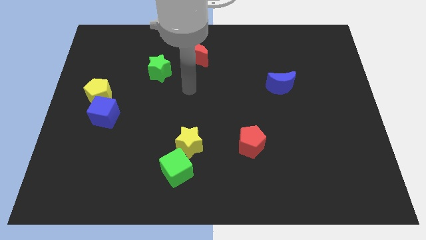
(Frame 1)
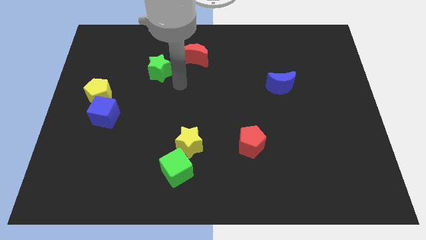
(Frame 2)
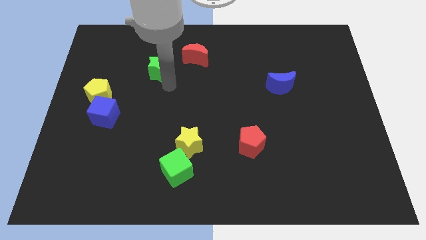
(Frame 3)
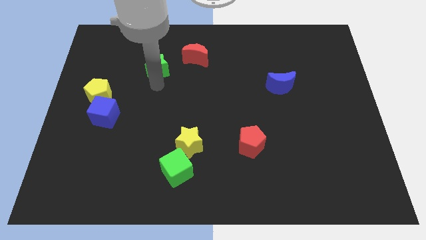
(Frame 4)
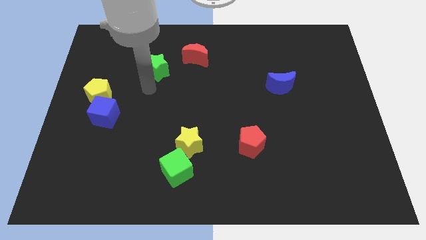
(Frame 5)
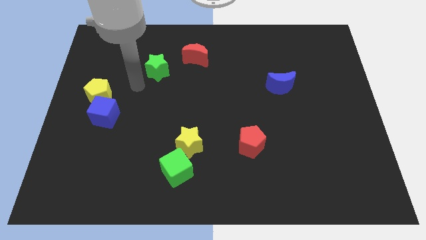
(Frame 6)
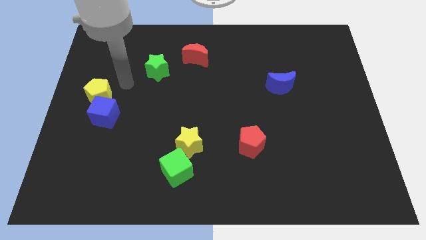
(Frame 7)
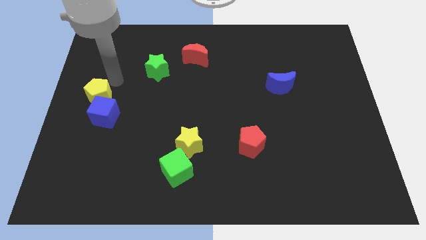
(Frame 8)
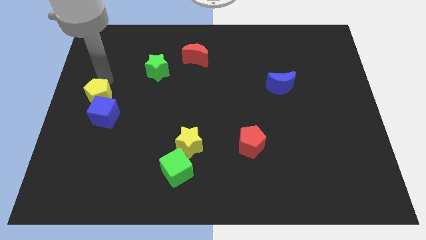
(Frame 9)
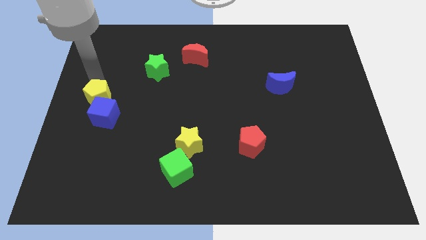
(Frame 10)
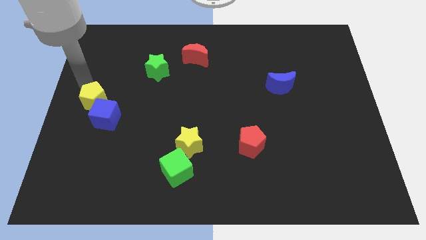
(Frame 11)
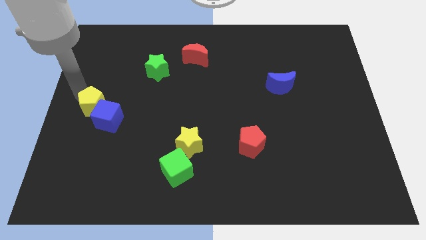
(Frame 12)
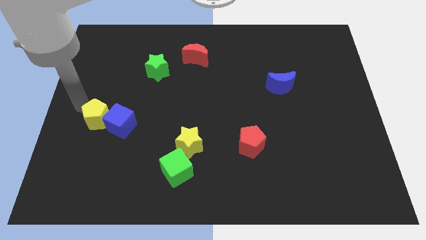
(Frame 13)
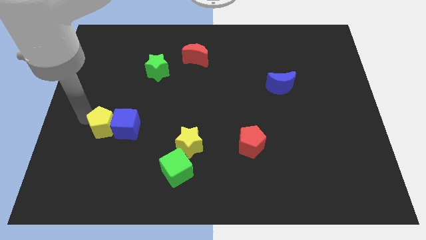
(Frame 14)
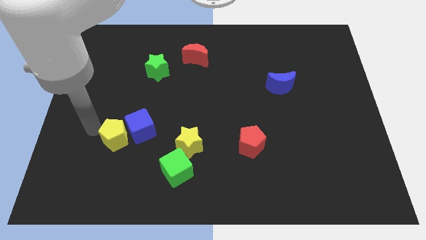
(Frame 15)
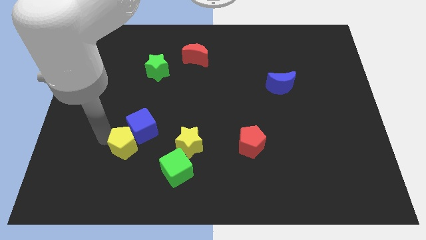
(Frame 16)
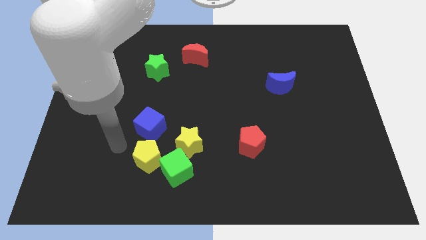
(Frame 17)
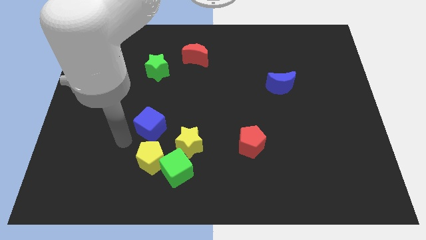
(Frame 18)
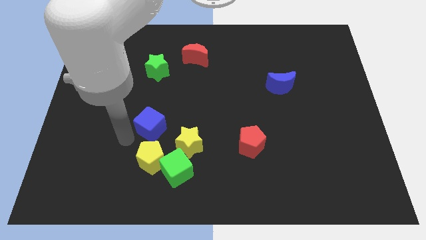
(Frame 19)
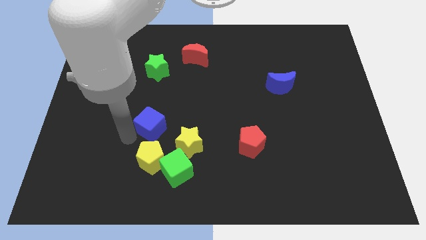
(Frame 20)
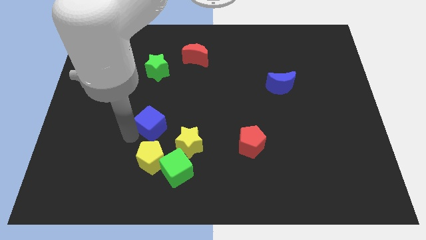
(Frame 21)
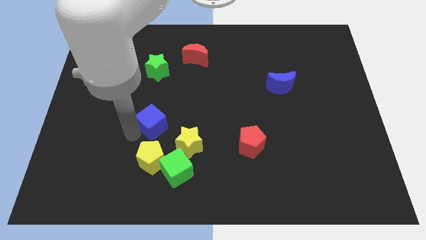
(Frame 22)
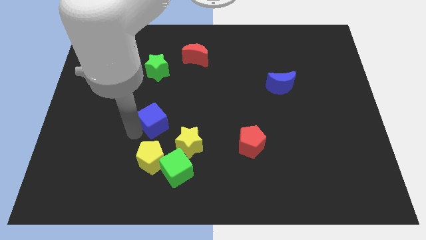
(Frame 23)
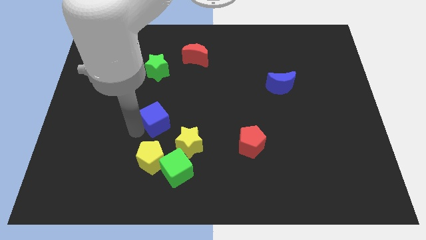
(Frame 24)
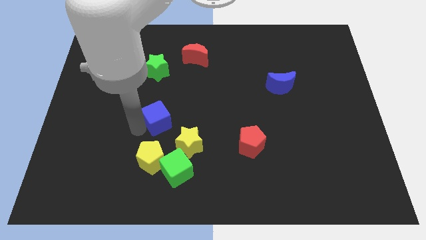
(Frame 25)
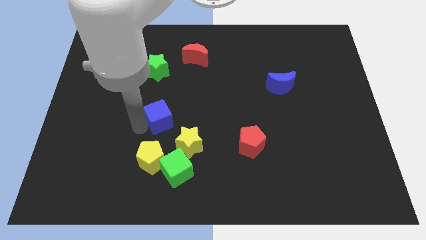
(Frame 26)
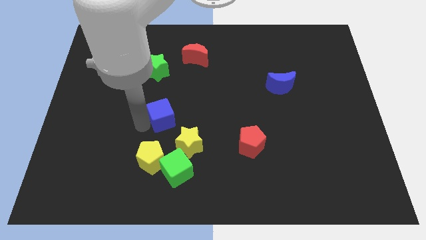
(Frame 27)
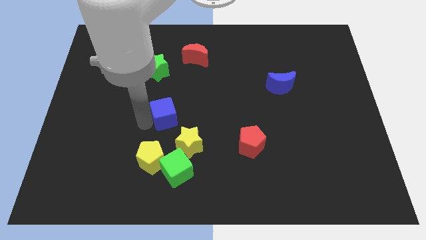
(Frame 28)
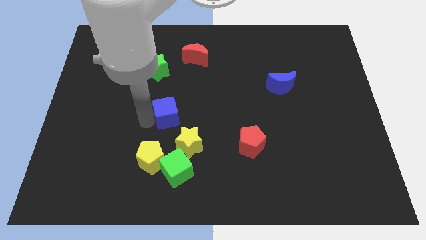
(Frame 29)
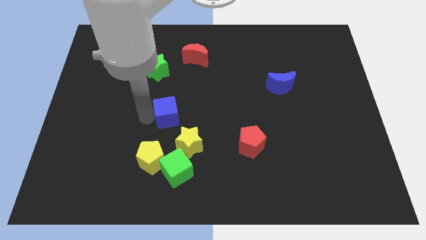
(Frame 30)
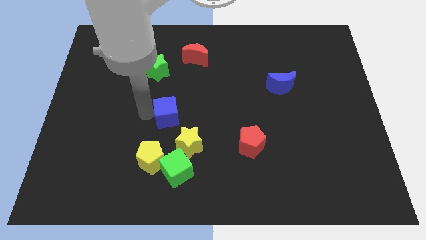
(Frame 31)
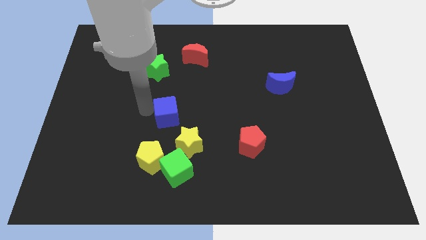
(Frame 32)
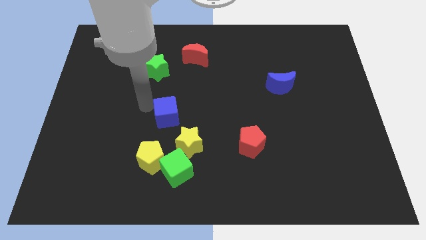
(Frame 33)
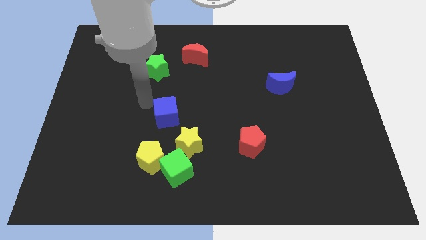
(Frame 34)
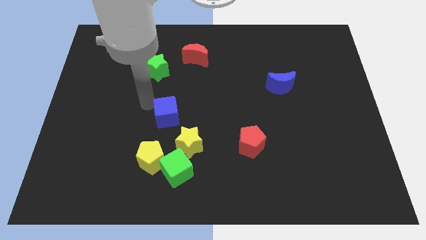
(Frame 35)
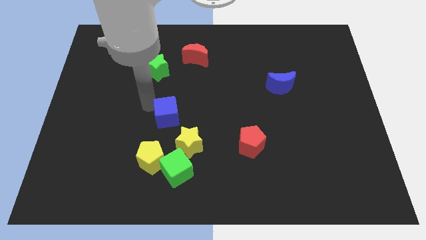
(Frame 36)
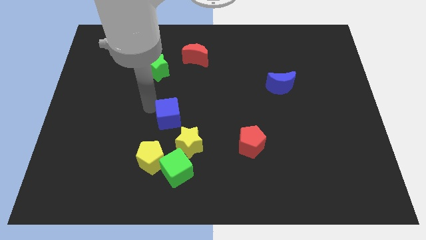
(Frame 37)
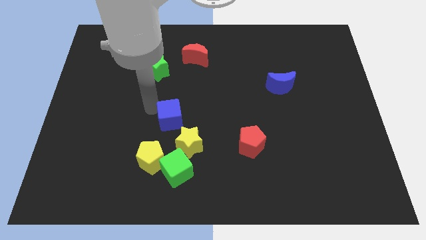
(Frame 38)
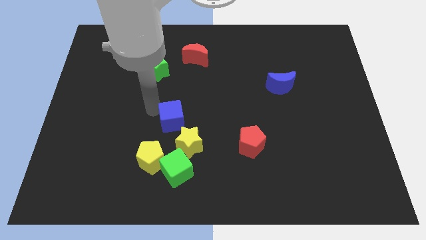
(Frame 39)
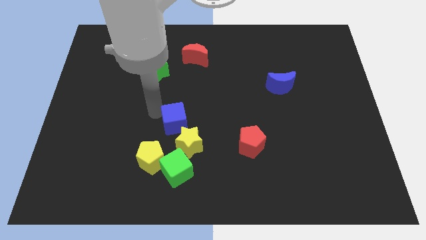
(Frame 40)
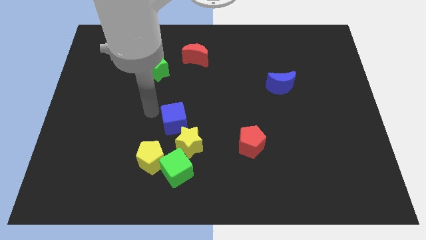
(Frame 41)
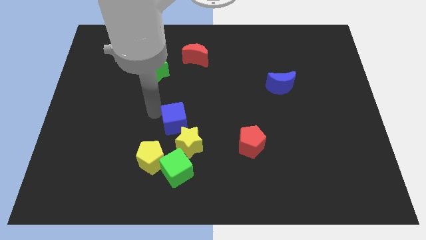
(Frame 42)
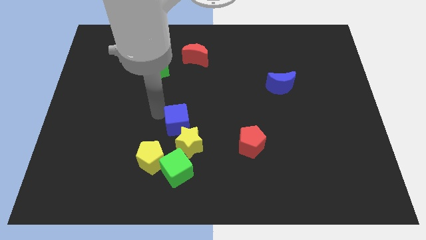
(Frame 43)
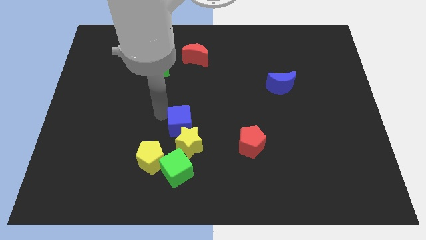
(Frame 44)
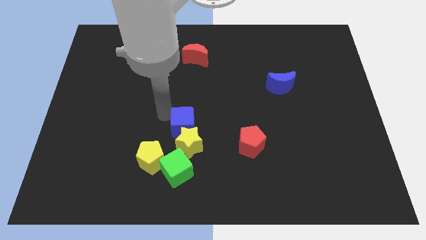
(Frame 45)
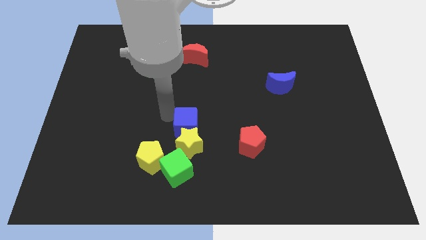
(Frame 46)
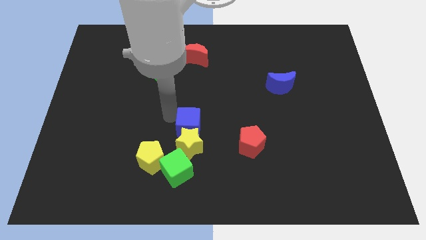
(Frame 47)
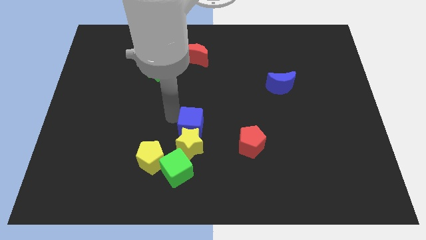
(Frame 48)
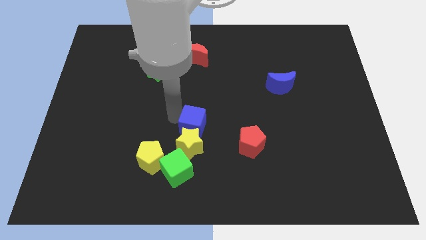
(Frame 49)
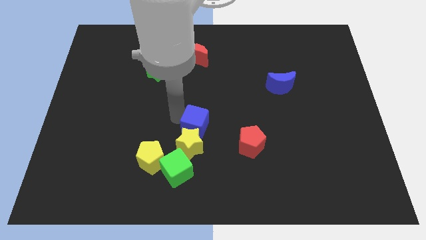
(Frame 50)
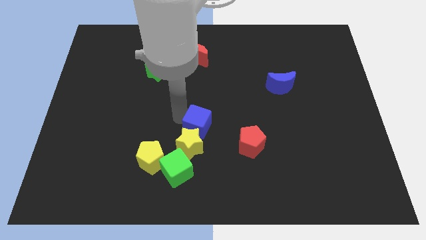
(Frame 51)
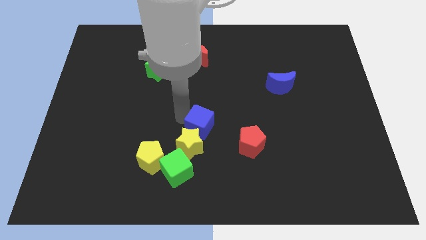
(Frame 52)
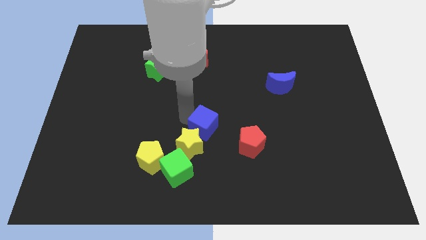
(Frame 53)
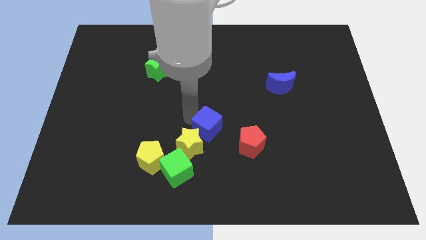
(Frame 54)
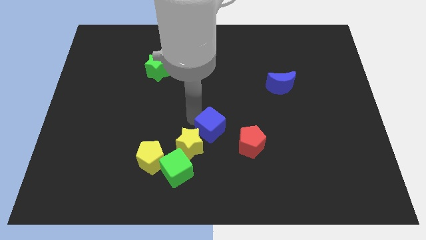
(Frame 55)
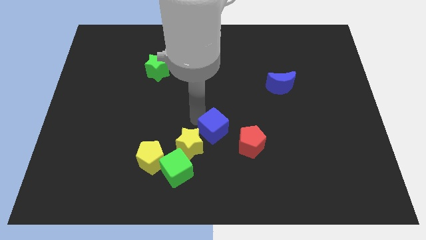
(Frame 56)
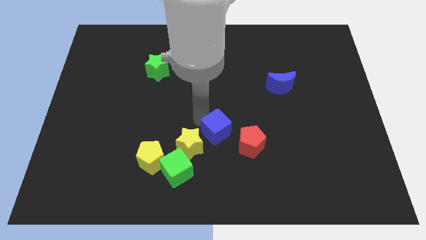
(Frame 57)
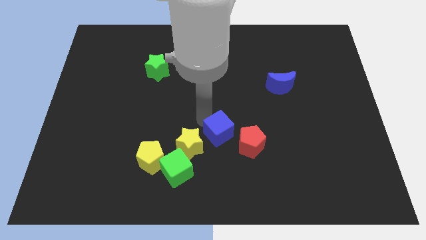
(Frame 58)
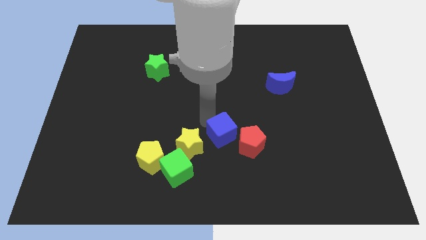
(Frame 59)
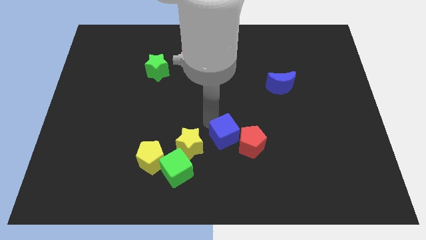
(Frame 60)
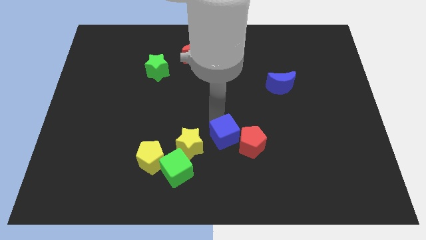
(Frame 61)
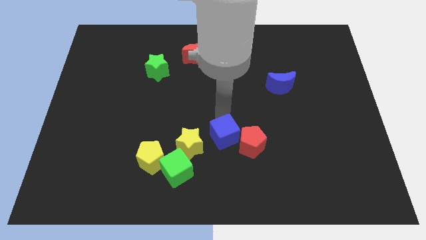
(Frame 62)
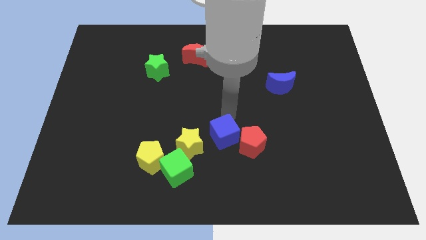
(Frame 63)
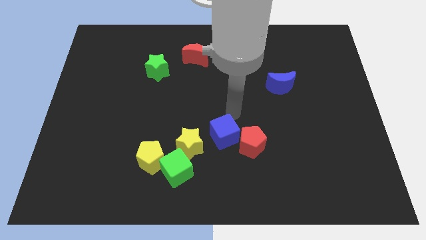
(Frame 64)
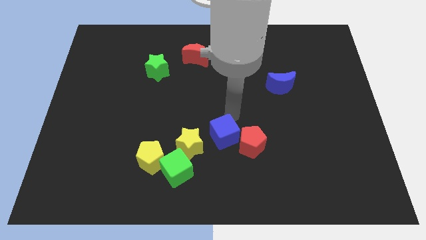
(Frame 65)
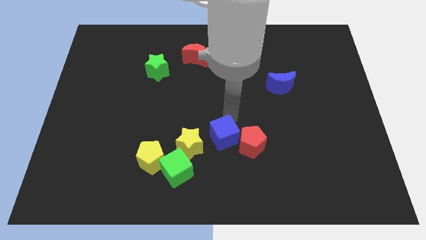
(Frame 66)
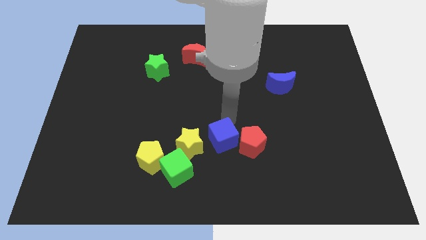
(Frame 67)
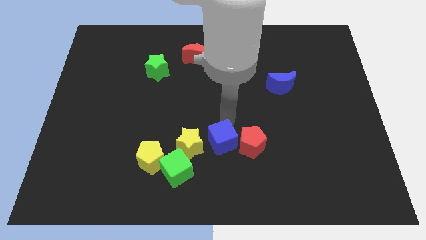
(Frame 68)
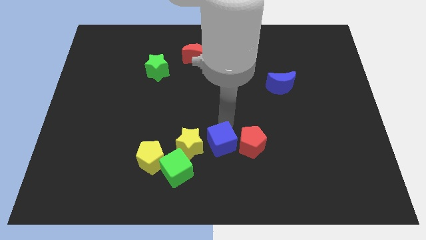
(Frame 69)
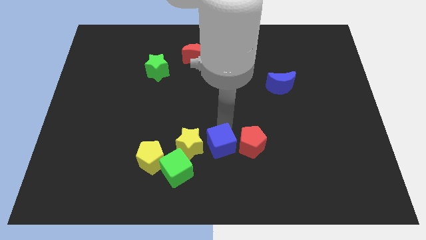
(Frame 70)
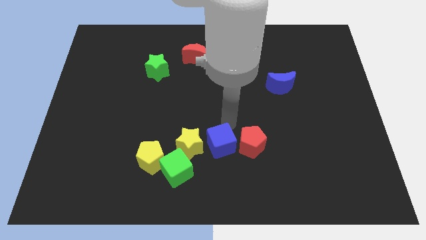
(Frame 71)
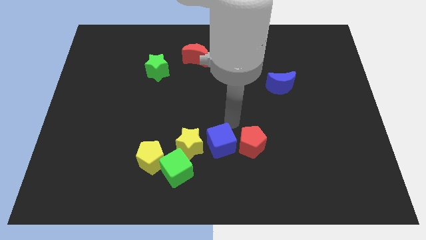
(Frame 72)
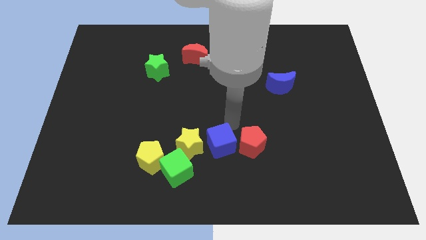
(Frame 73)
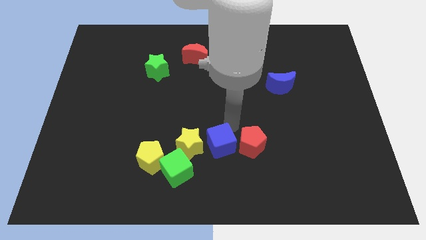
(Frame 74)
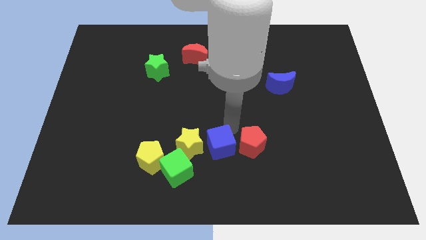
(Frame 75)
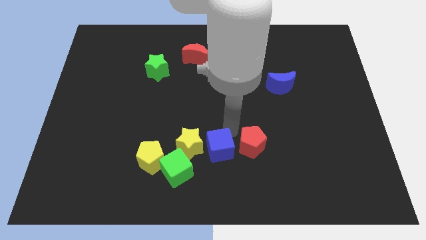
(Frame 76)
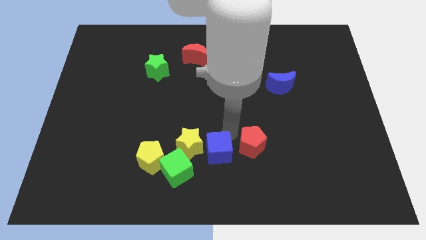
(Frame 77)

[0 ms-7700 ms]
push the blue cube just right of the green cube
